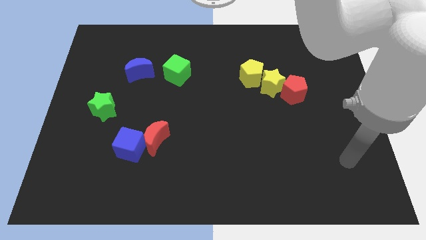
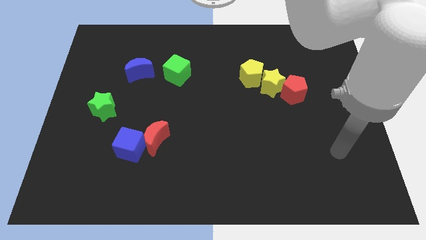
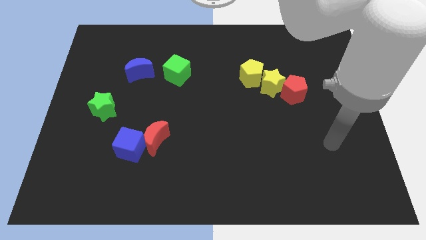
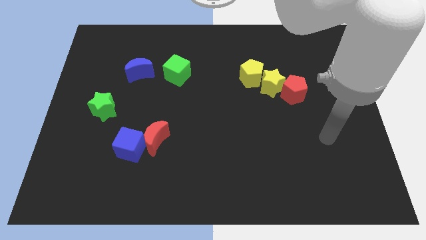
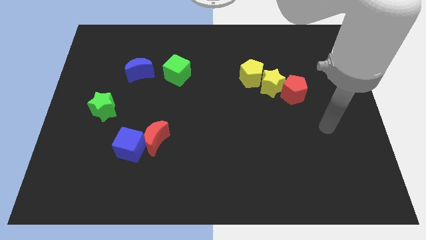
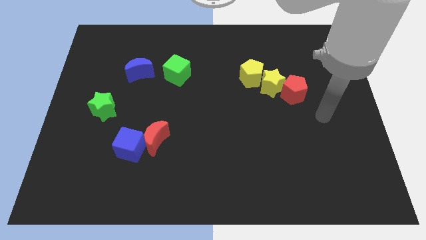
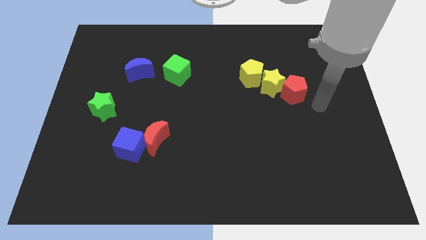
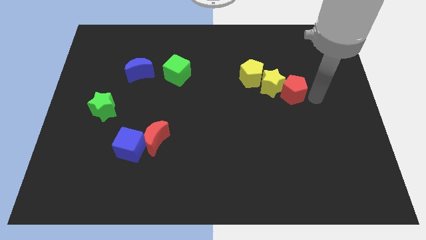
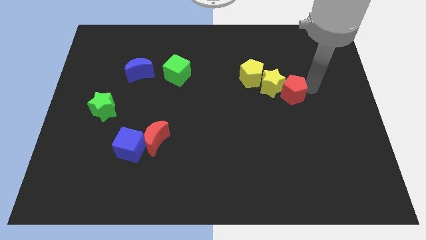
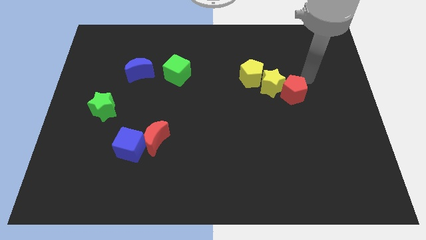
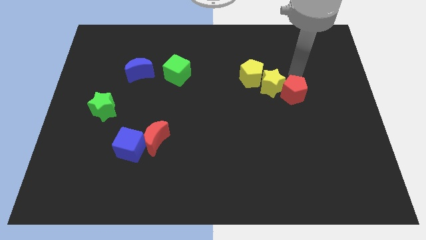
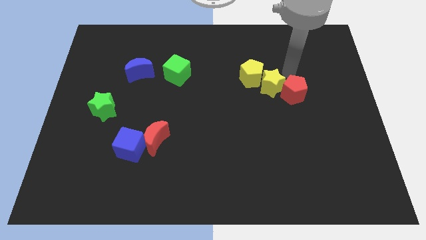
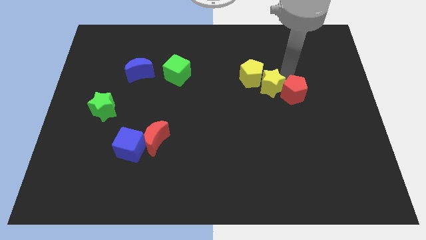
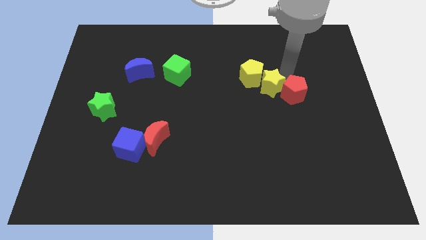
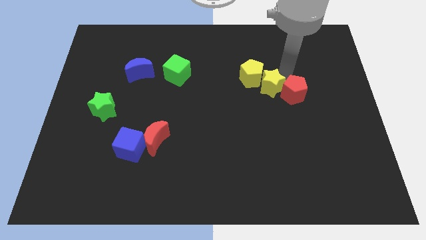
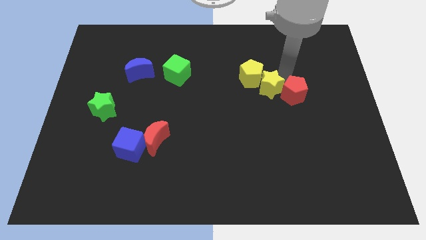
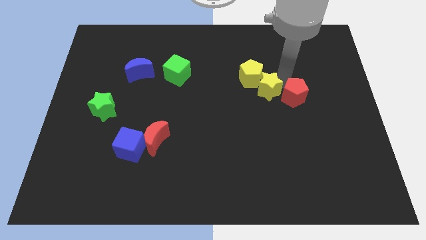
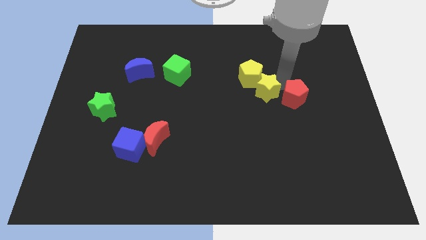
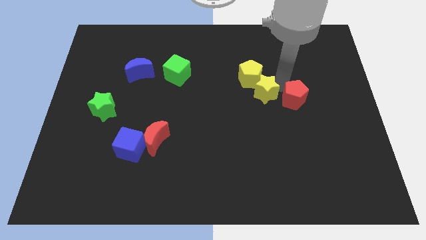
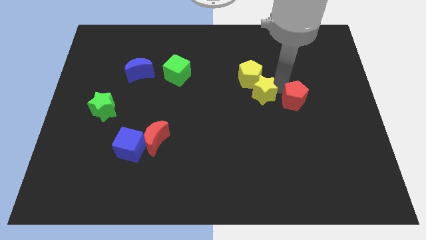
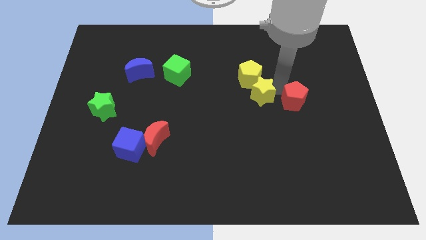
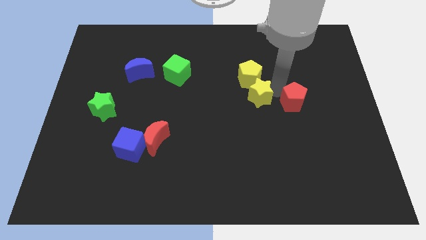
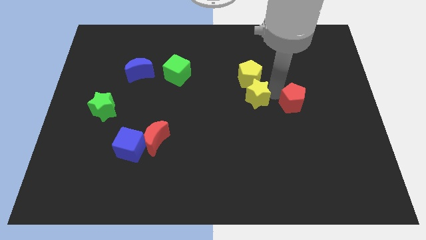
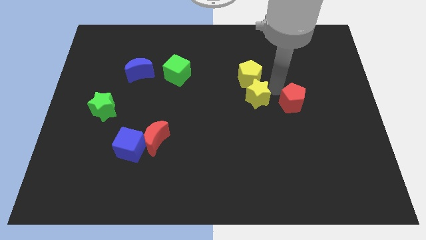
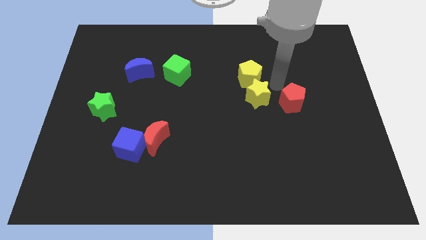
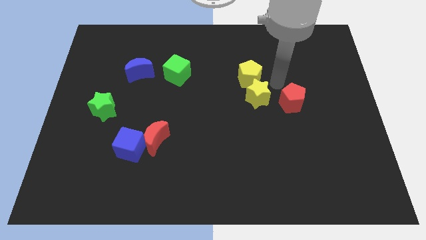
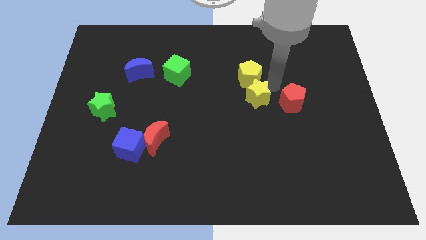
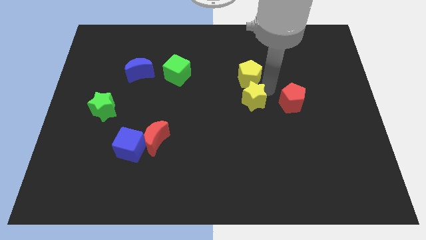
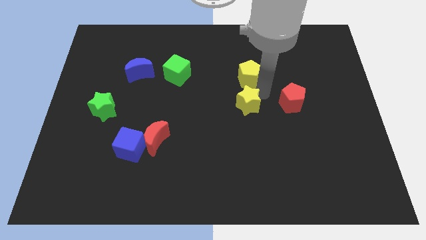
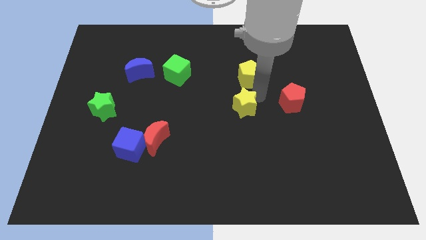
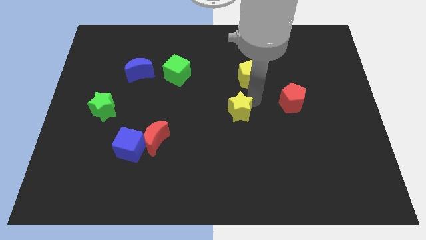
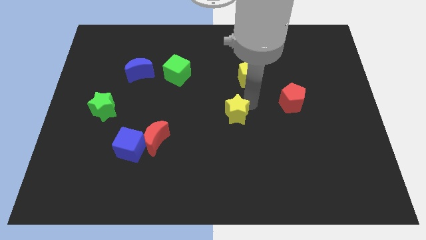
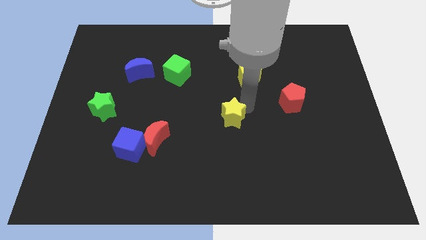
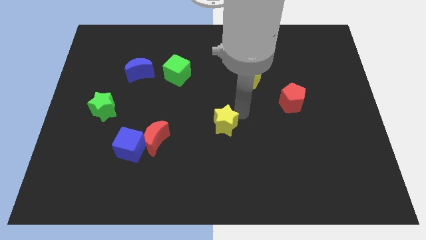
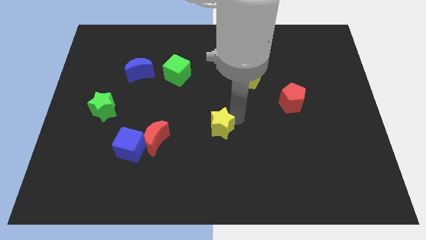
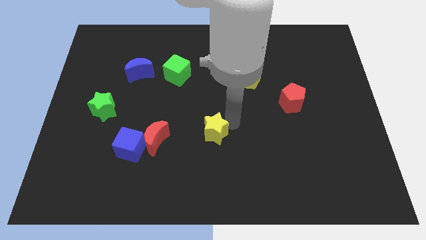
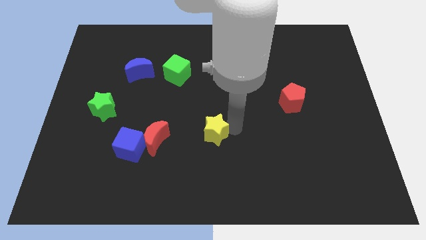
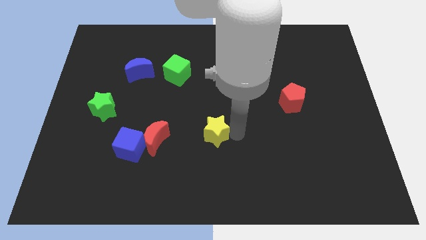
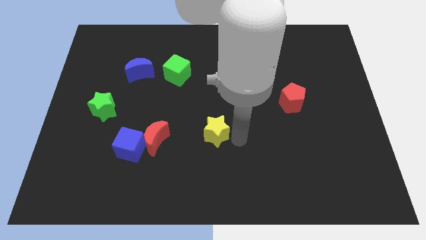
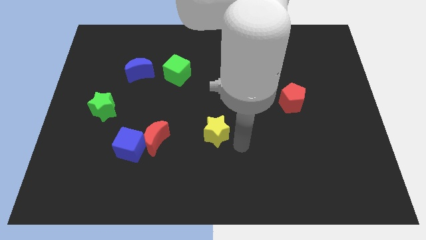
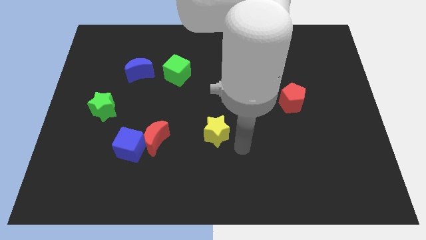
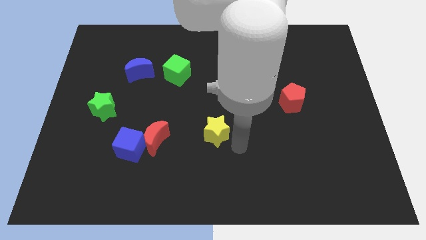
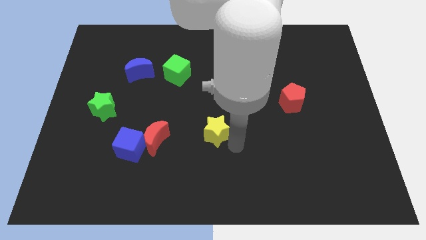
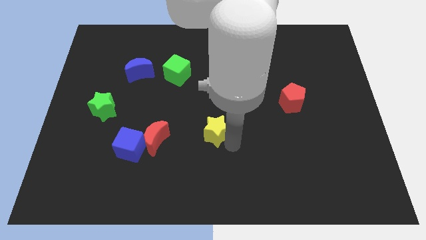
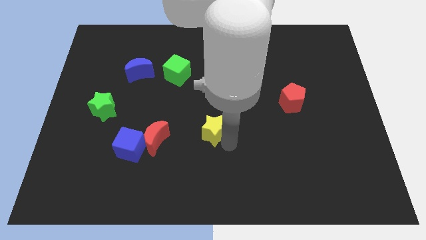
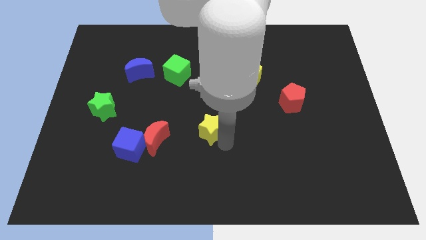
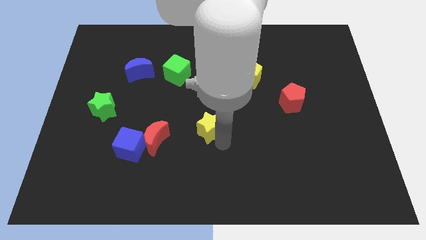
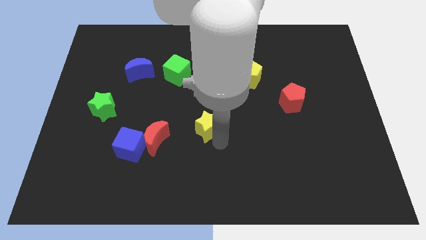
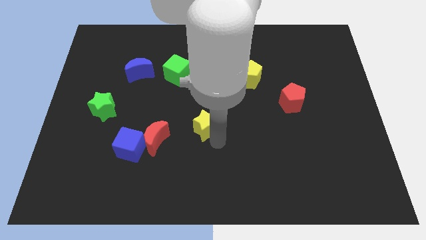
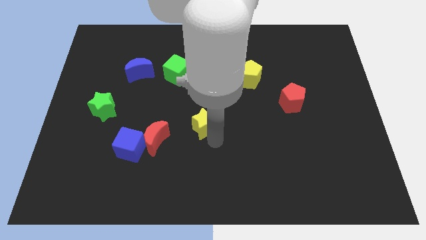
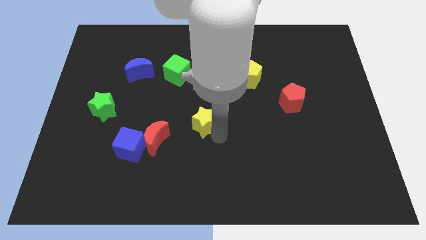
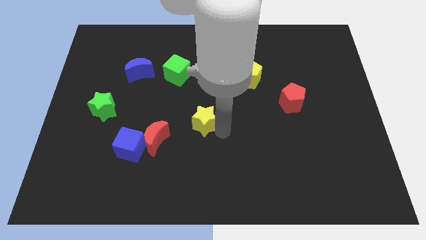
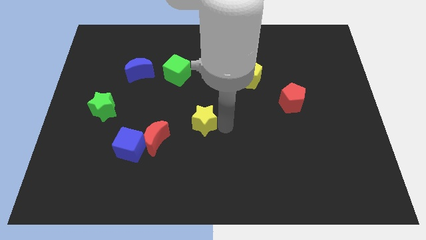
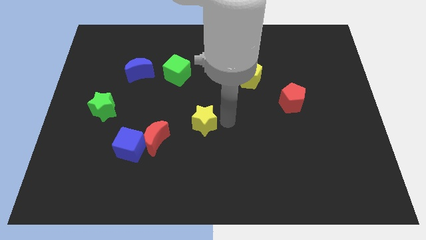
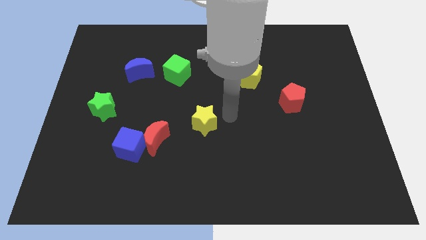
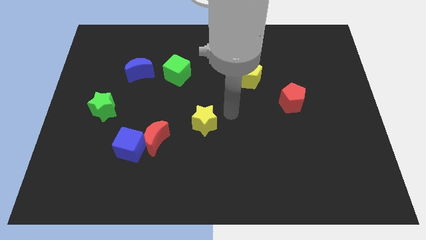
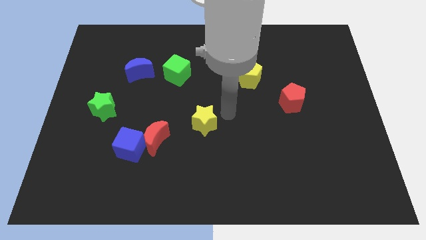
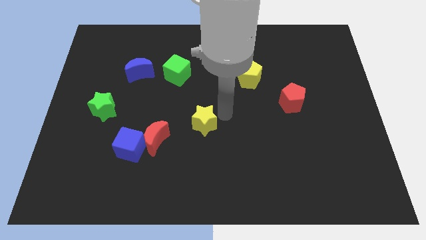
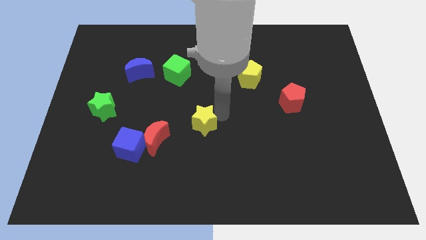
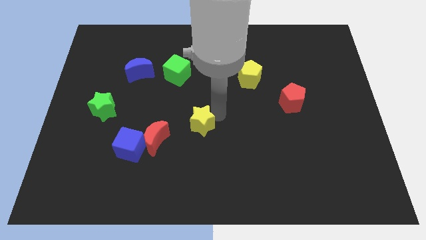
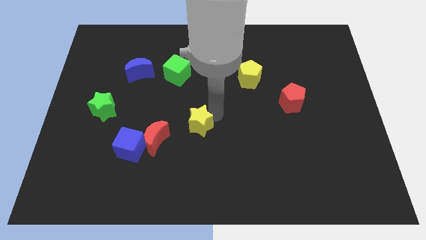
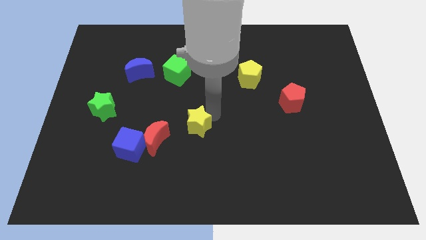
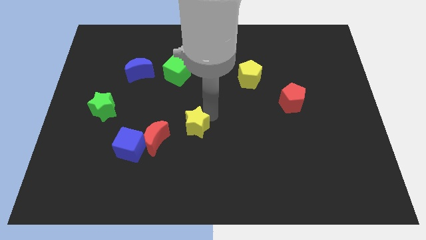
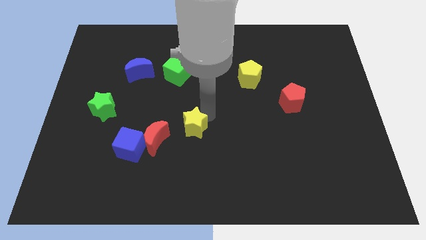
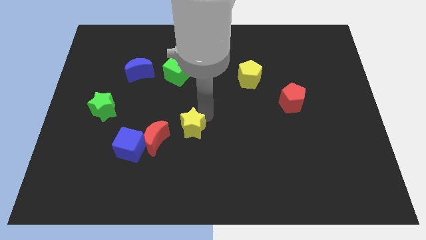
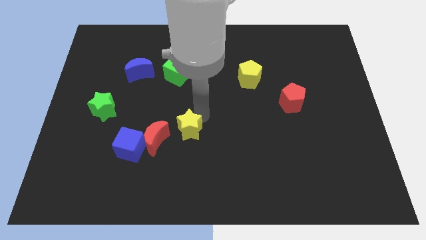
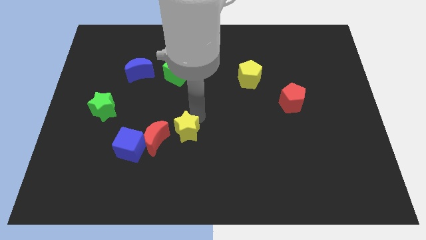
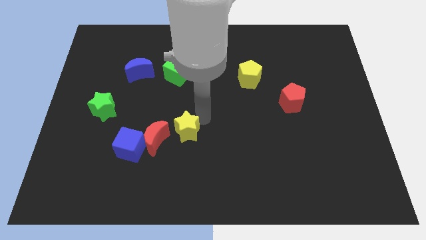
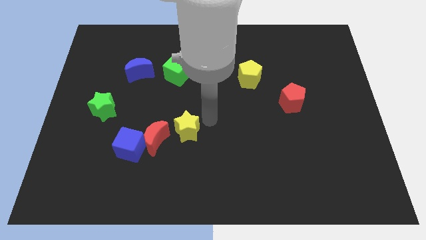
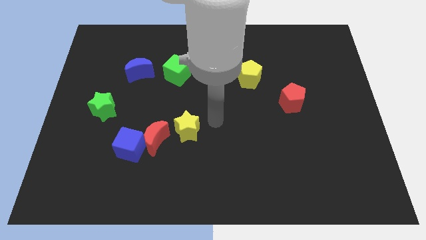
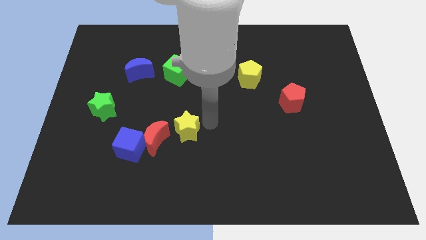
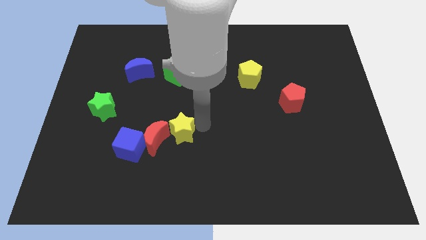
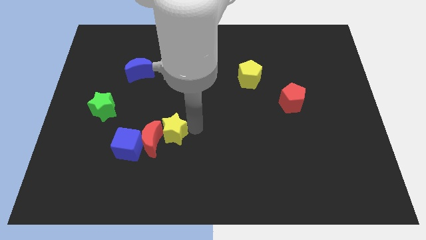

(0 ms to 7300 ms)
put the yellow star towards the red moon
